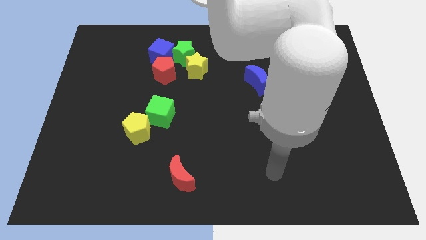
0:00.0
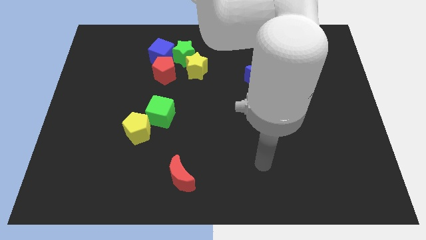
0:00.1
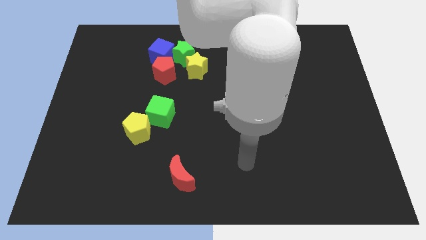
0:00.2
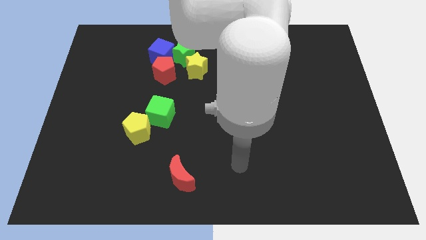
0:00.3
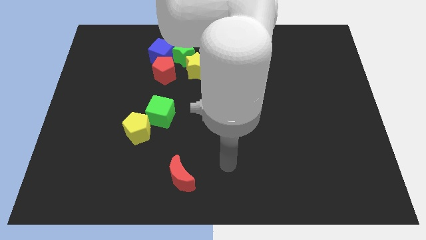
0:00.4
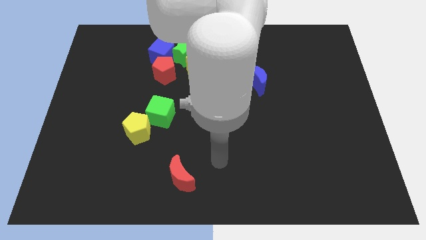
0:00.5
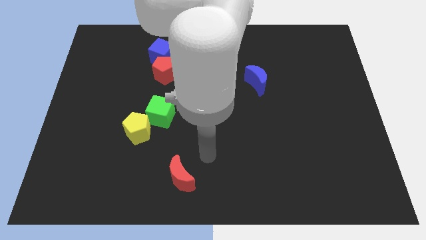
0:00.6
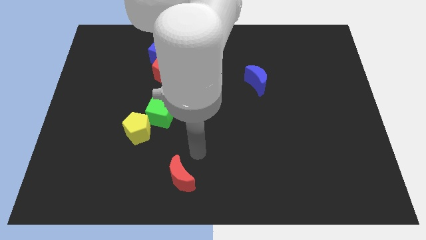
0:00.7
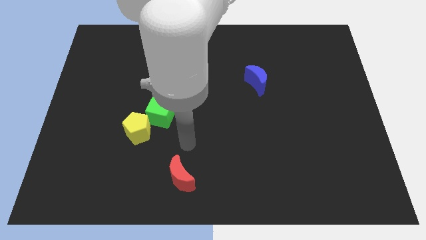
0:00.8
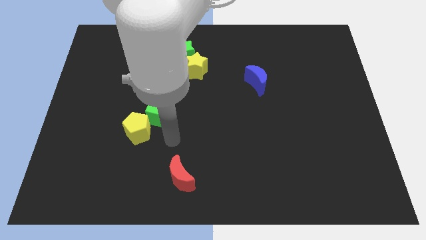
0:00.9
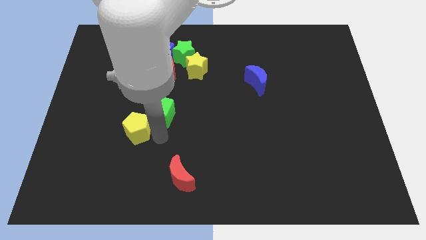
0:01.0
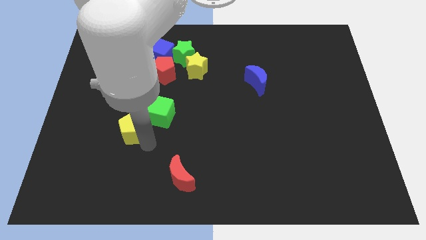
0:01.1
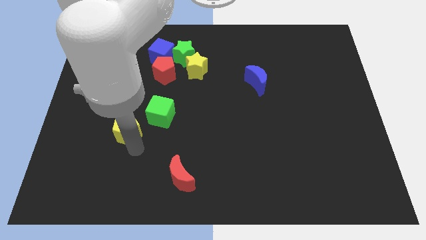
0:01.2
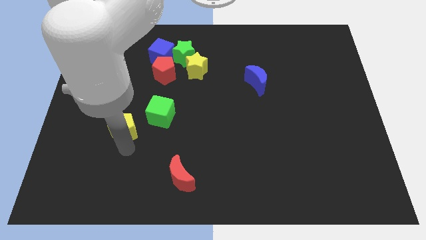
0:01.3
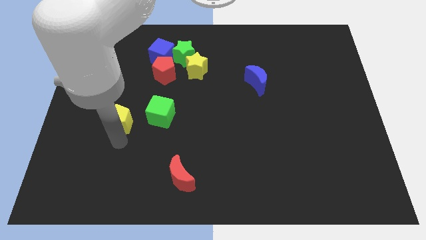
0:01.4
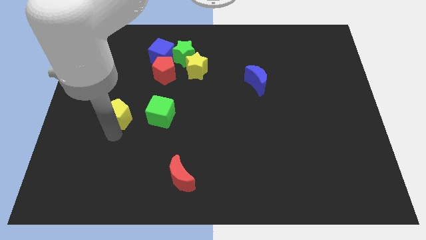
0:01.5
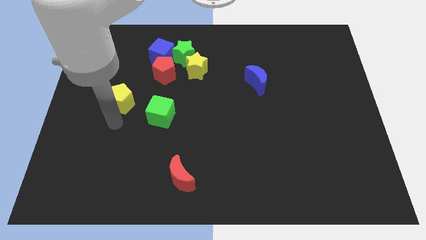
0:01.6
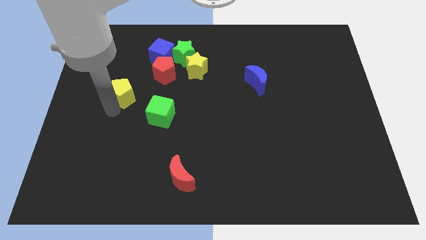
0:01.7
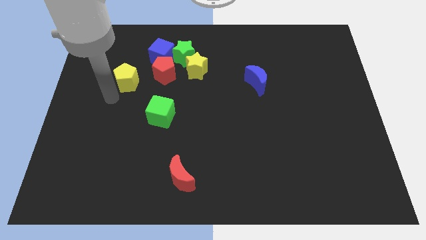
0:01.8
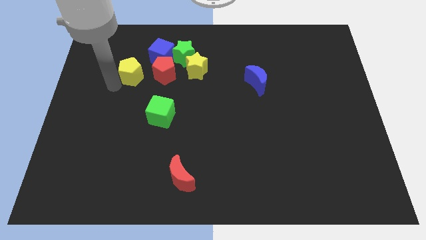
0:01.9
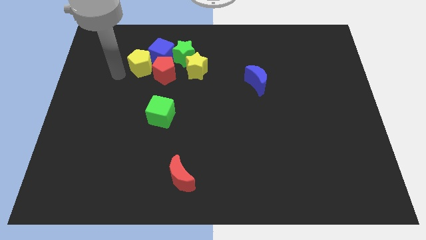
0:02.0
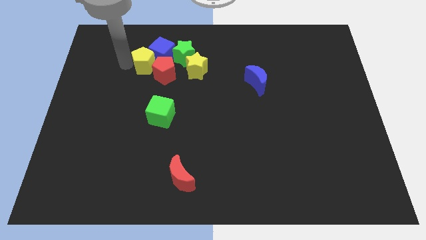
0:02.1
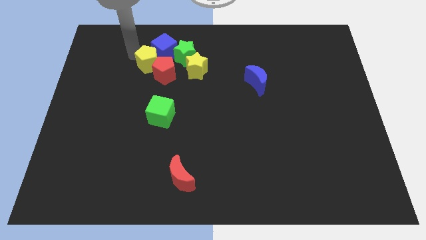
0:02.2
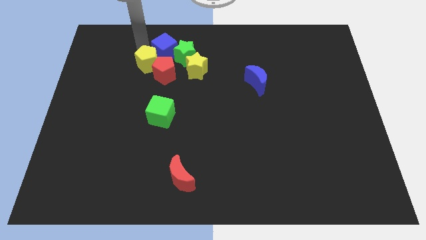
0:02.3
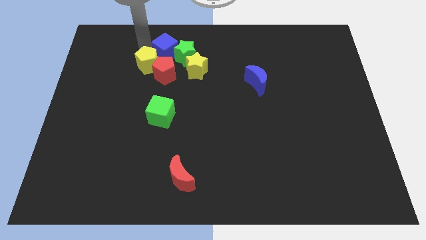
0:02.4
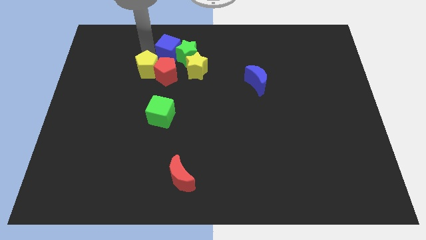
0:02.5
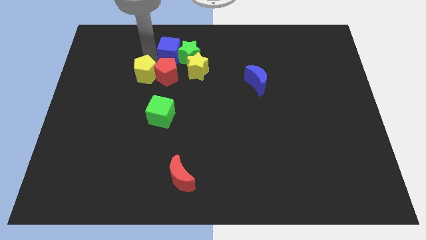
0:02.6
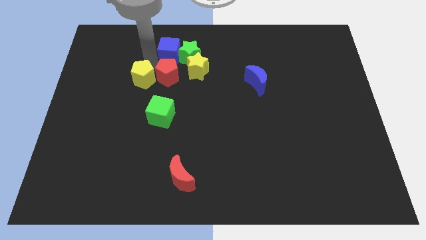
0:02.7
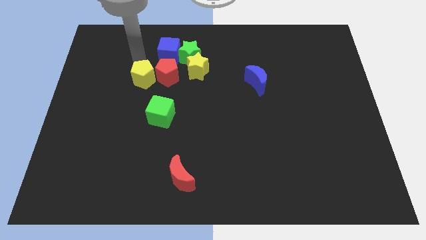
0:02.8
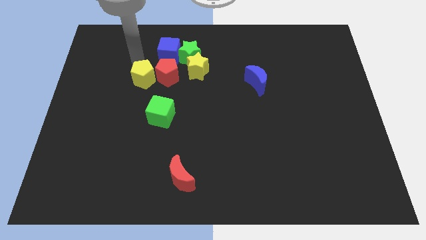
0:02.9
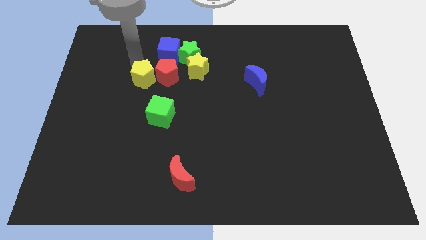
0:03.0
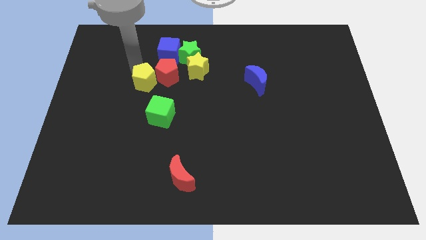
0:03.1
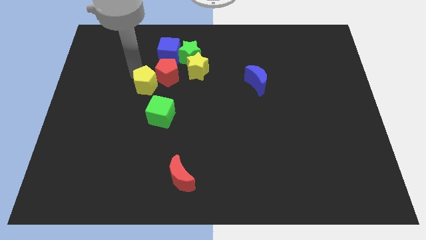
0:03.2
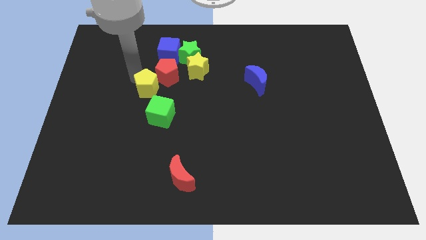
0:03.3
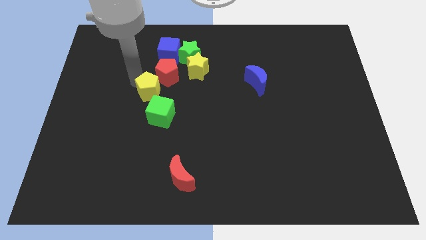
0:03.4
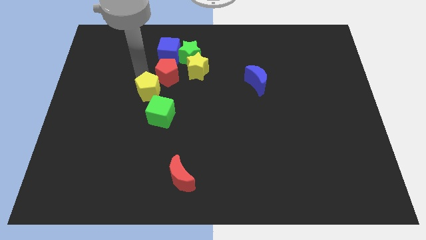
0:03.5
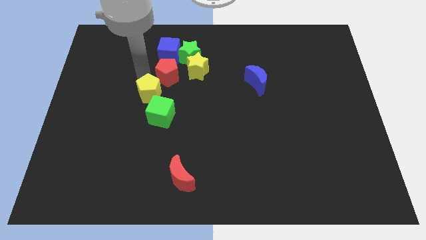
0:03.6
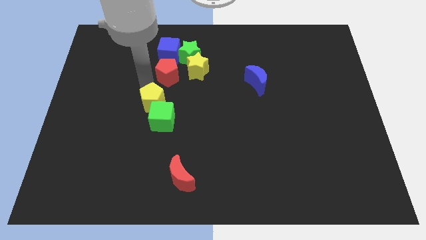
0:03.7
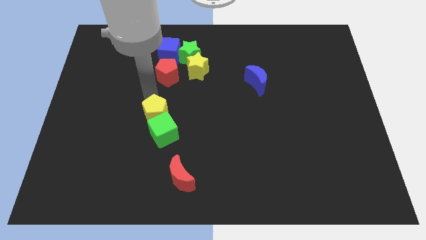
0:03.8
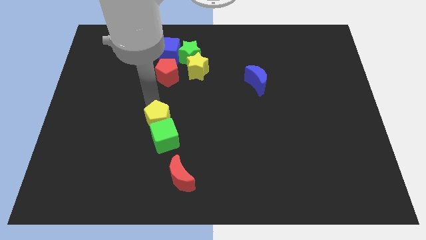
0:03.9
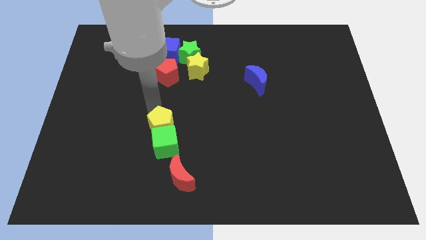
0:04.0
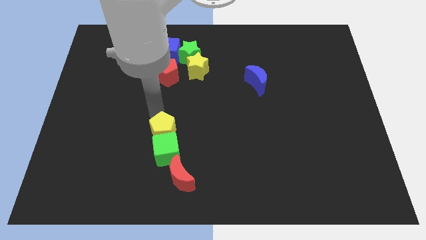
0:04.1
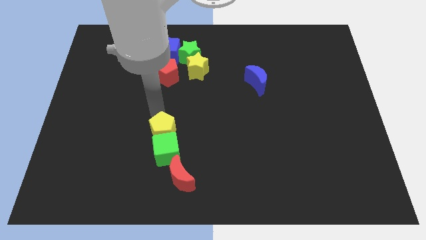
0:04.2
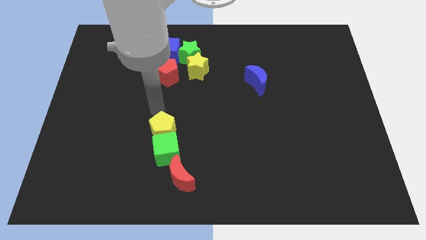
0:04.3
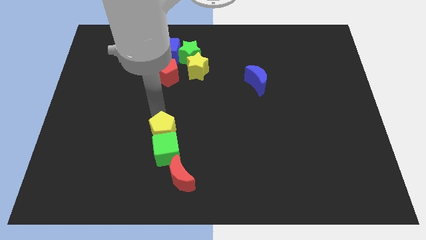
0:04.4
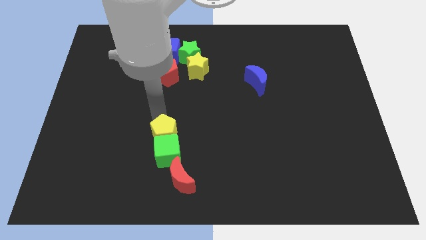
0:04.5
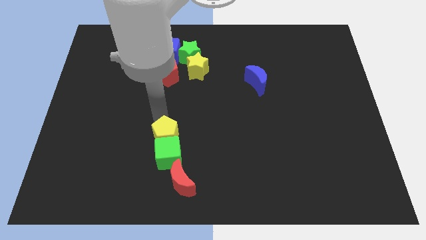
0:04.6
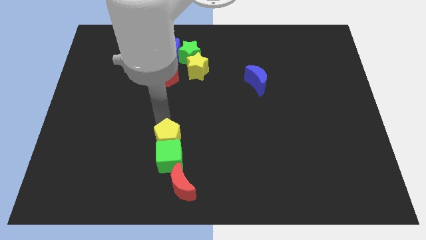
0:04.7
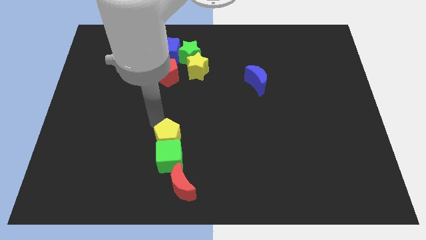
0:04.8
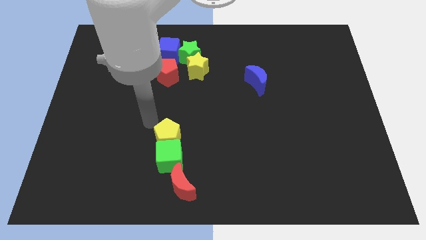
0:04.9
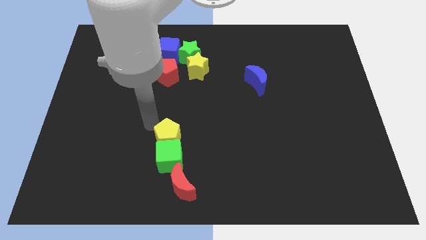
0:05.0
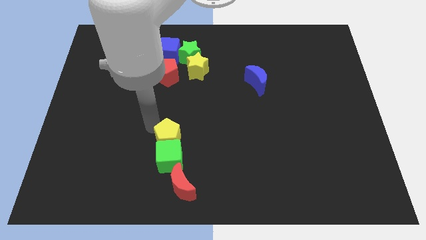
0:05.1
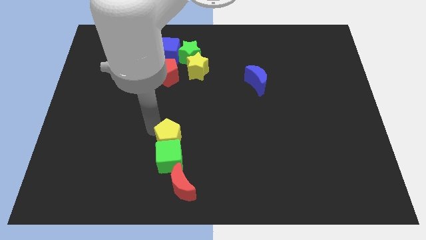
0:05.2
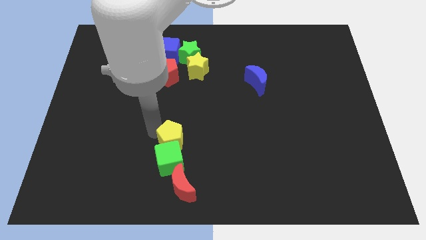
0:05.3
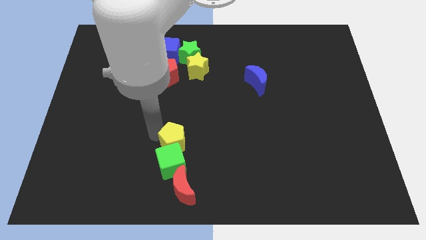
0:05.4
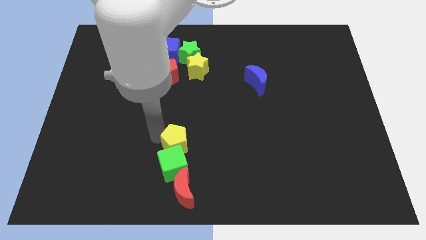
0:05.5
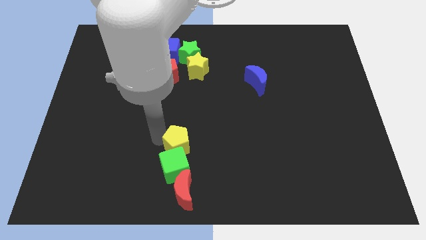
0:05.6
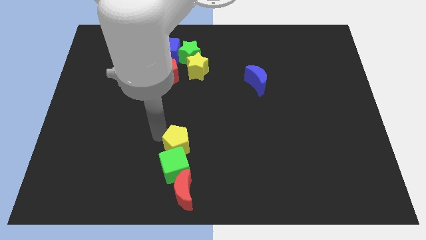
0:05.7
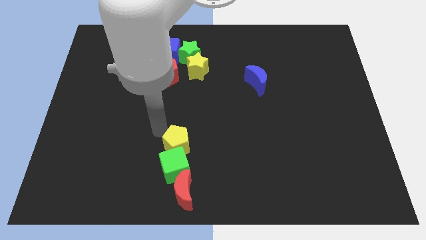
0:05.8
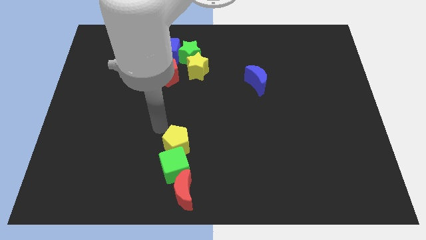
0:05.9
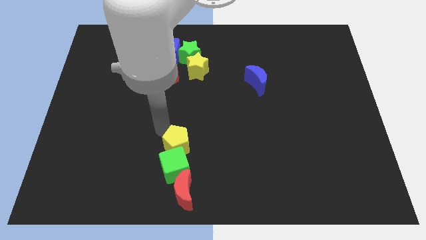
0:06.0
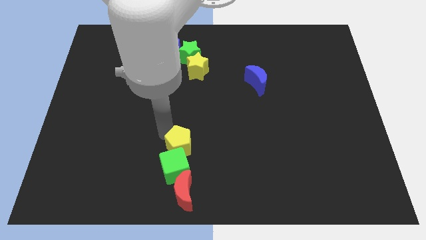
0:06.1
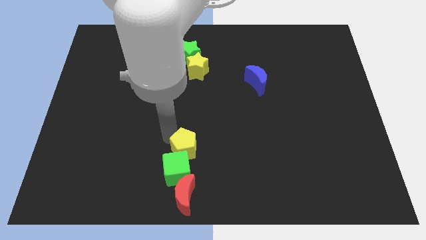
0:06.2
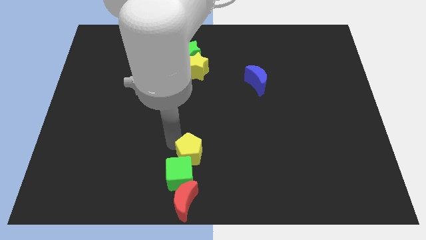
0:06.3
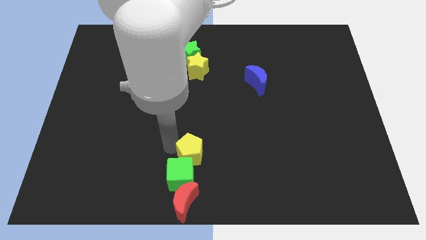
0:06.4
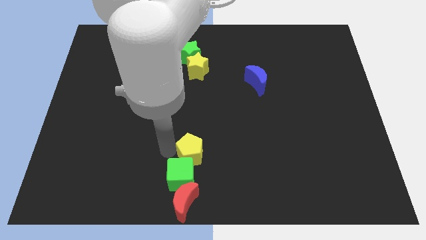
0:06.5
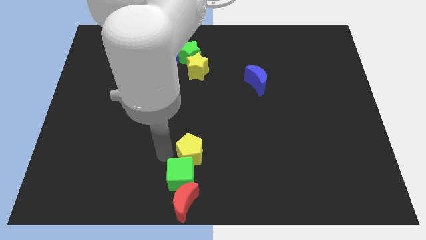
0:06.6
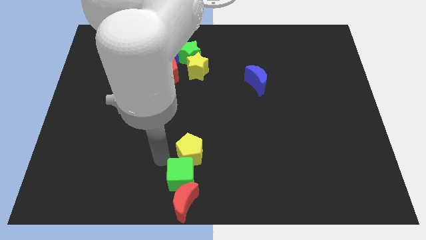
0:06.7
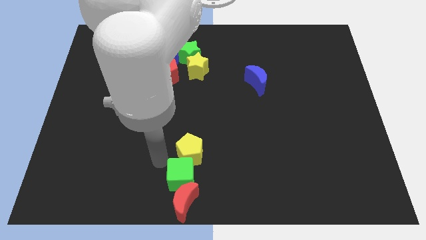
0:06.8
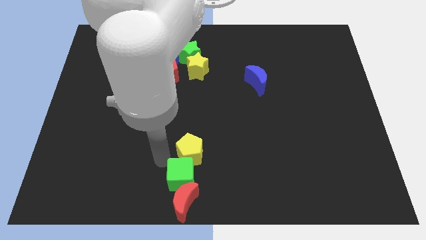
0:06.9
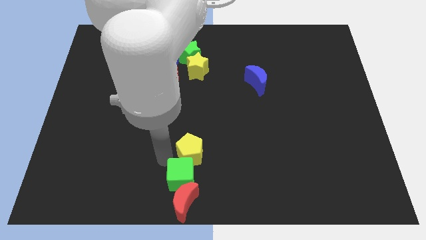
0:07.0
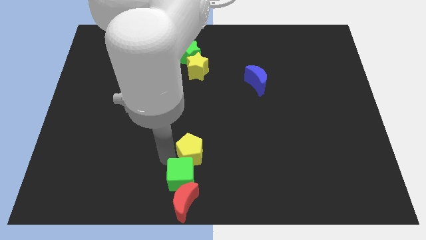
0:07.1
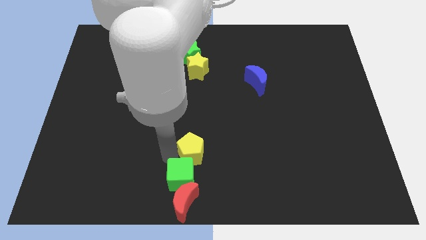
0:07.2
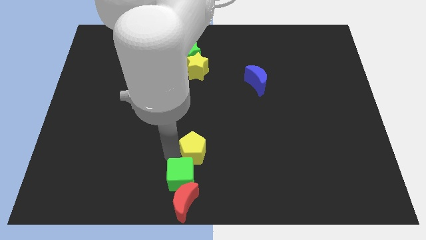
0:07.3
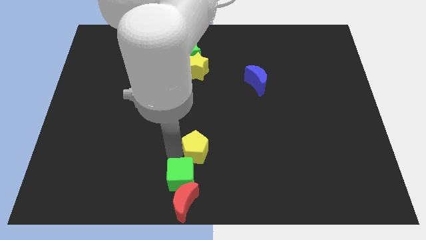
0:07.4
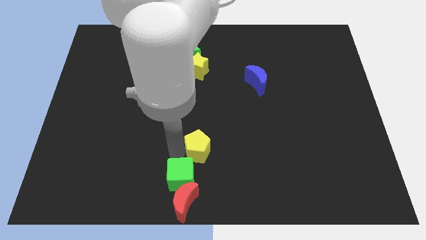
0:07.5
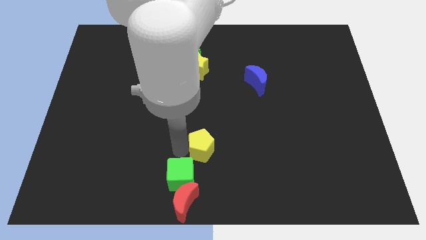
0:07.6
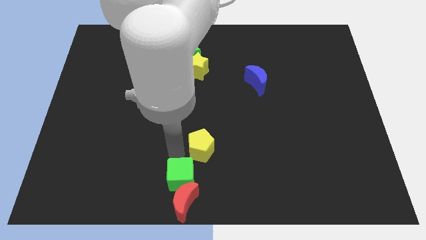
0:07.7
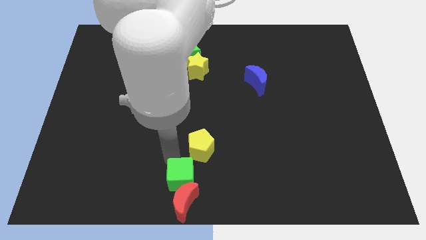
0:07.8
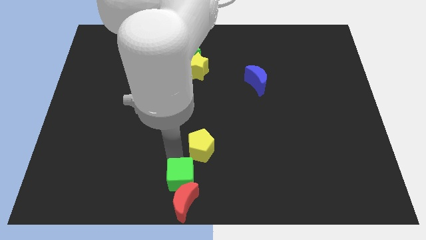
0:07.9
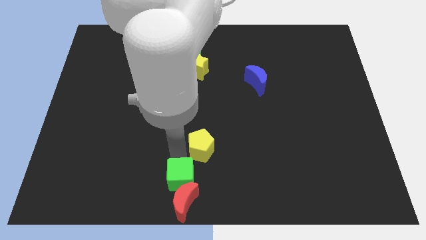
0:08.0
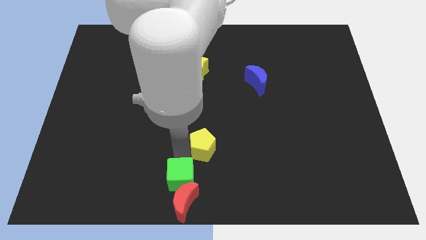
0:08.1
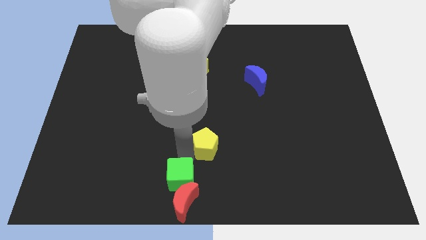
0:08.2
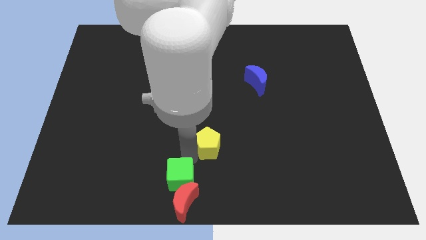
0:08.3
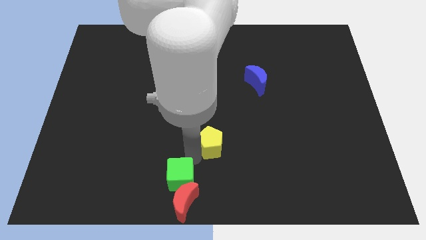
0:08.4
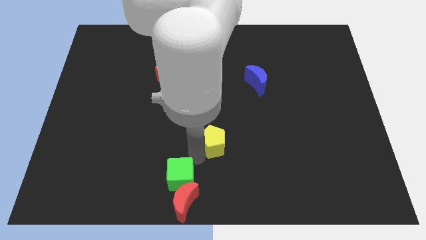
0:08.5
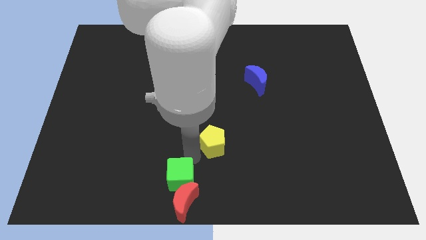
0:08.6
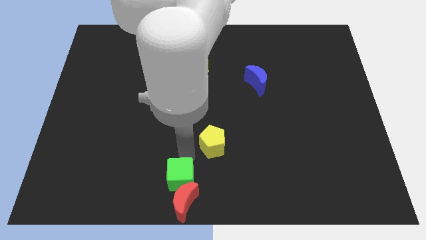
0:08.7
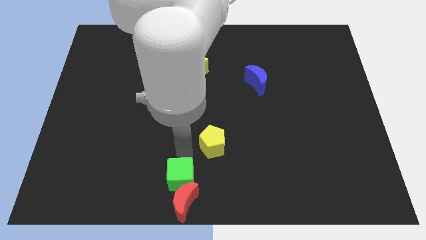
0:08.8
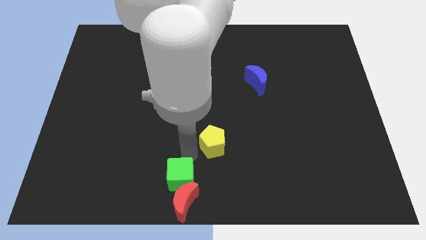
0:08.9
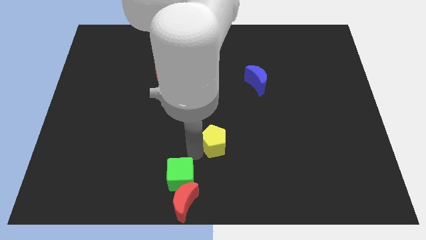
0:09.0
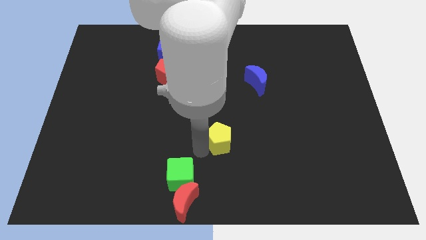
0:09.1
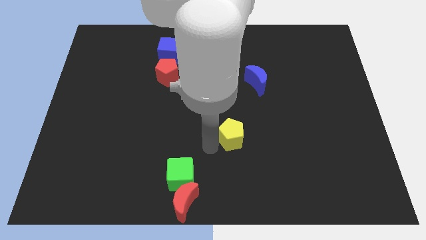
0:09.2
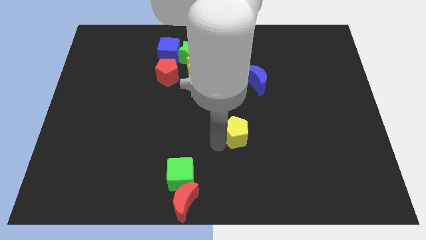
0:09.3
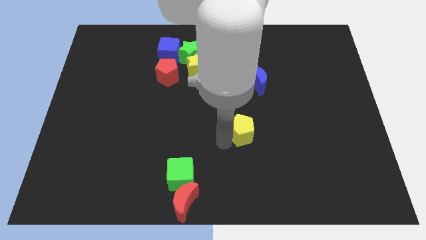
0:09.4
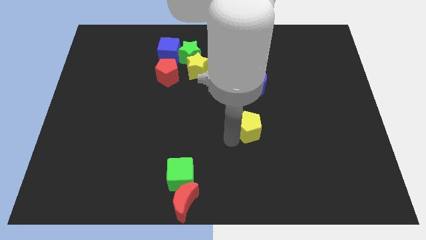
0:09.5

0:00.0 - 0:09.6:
put the yellow pentagon below the blue moon
